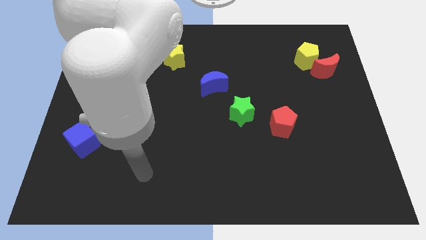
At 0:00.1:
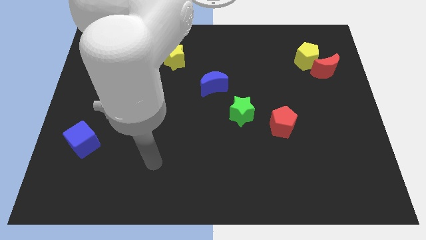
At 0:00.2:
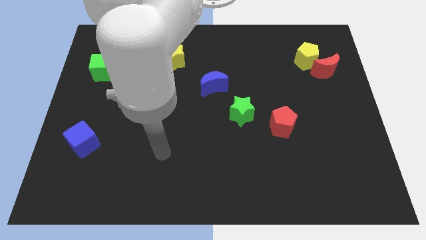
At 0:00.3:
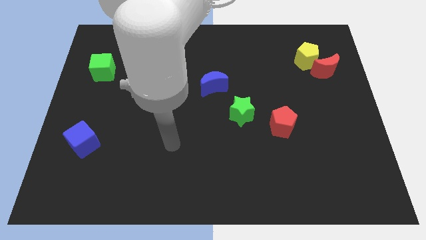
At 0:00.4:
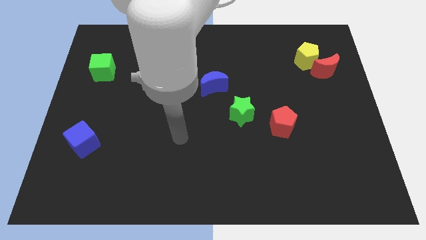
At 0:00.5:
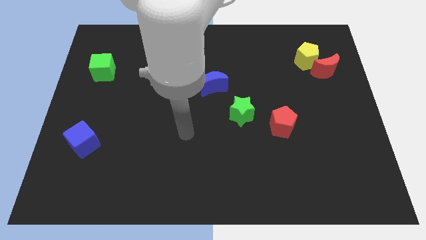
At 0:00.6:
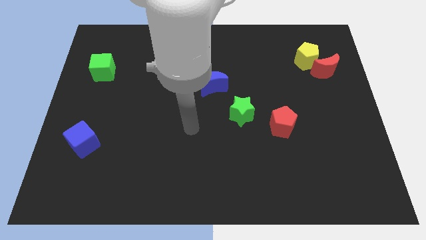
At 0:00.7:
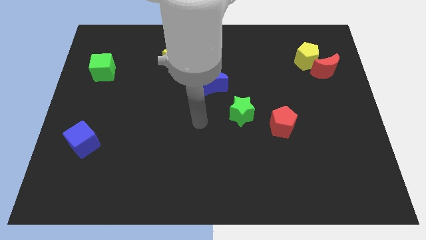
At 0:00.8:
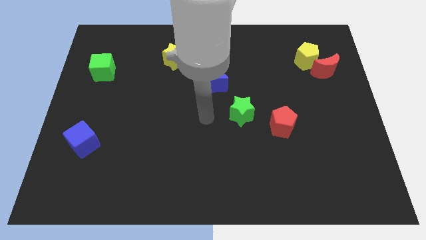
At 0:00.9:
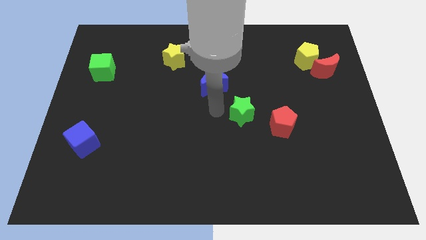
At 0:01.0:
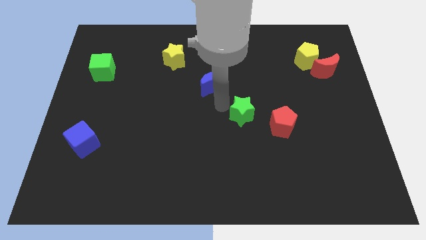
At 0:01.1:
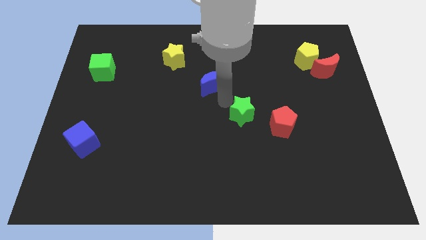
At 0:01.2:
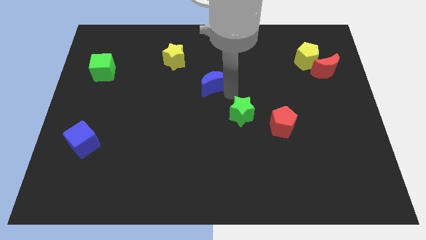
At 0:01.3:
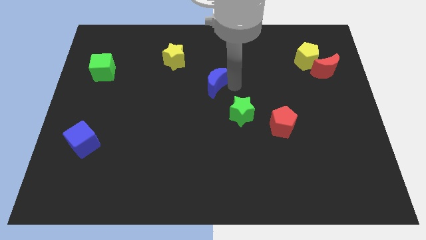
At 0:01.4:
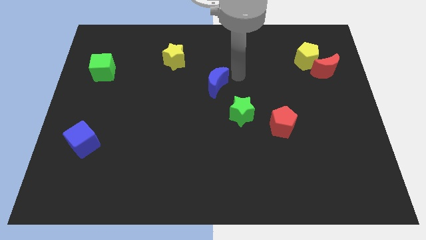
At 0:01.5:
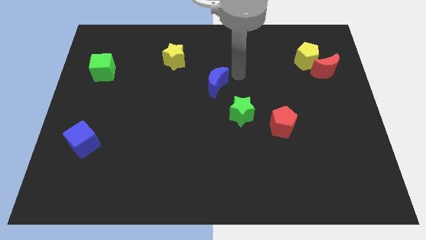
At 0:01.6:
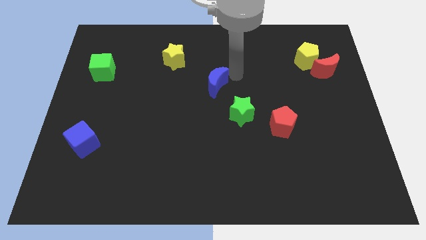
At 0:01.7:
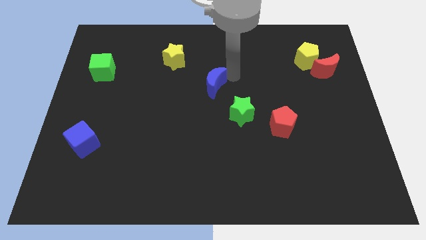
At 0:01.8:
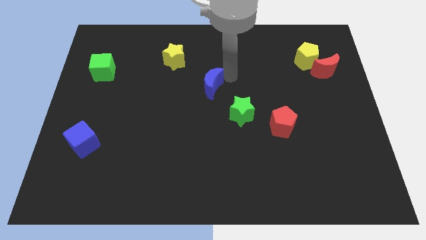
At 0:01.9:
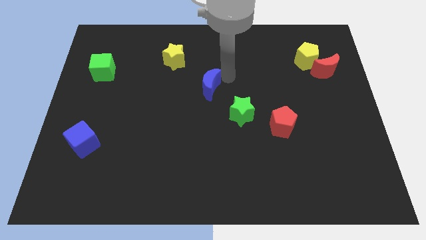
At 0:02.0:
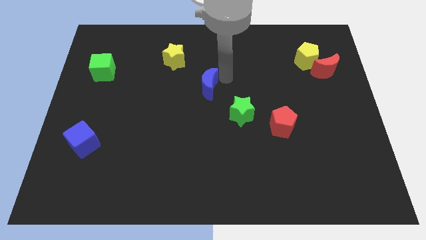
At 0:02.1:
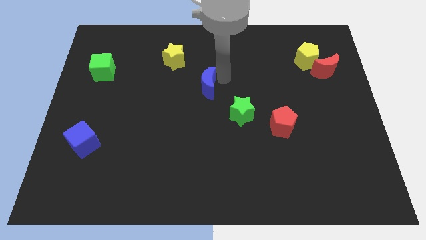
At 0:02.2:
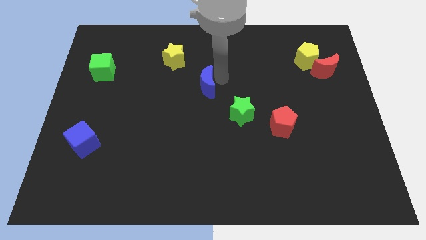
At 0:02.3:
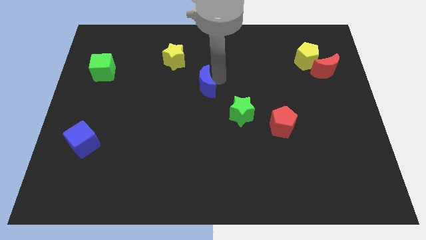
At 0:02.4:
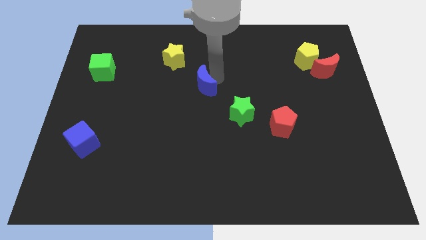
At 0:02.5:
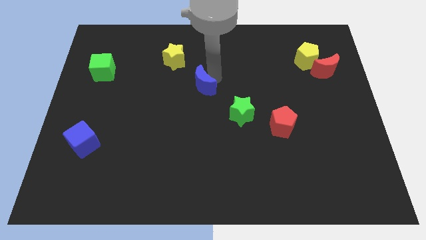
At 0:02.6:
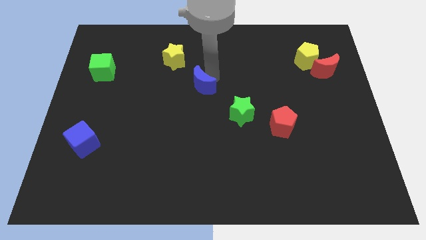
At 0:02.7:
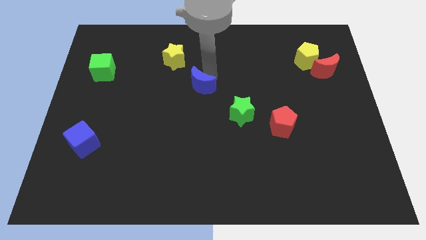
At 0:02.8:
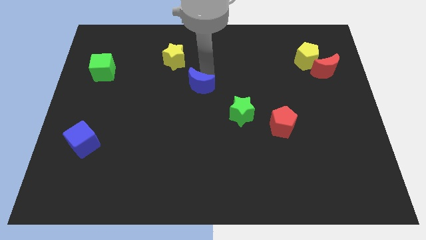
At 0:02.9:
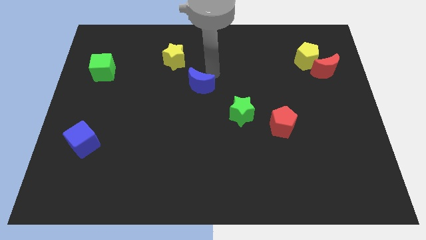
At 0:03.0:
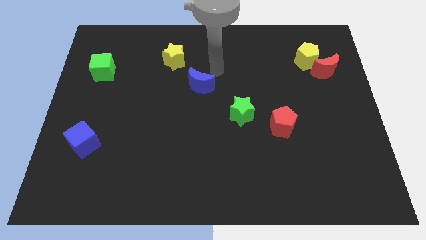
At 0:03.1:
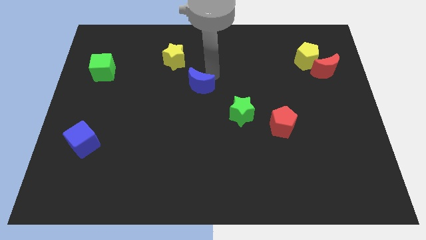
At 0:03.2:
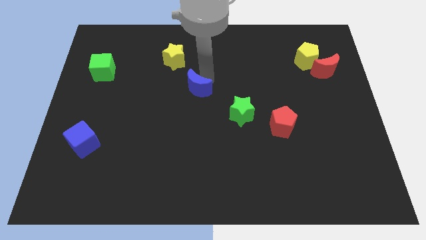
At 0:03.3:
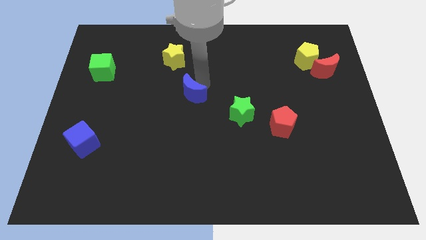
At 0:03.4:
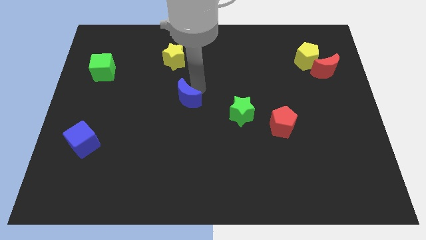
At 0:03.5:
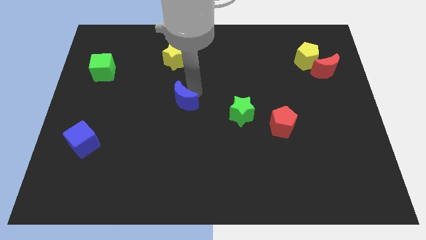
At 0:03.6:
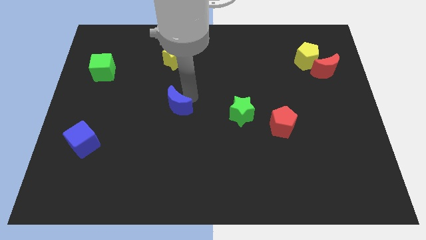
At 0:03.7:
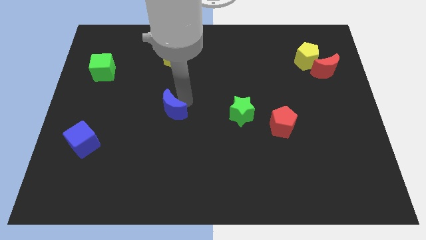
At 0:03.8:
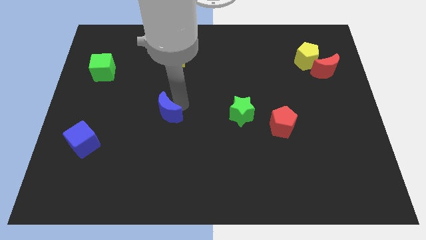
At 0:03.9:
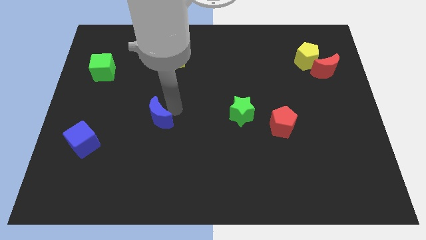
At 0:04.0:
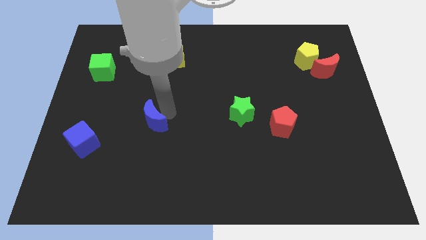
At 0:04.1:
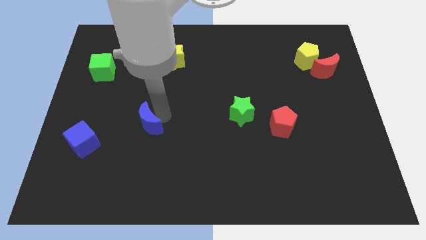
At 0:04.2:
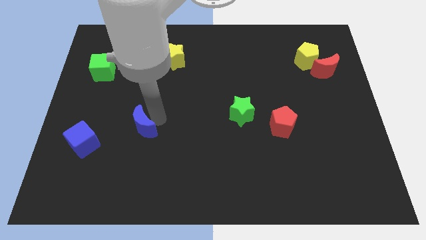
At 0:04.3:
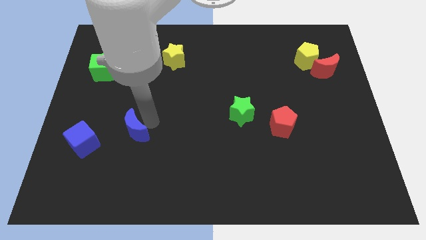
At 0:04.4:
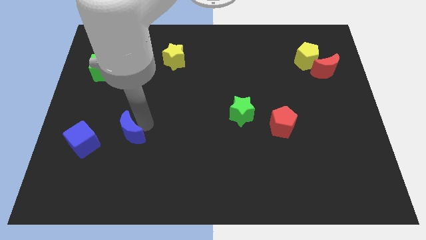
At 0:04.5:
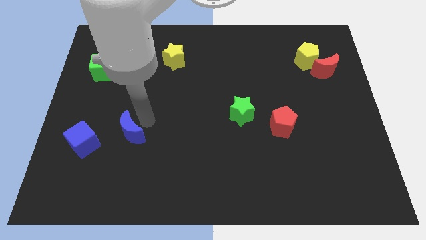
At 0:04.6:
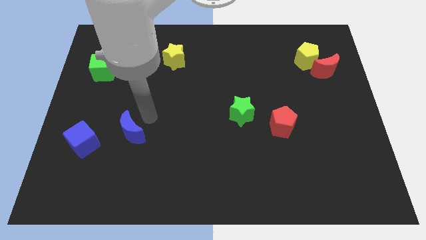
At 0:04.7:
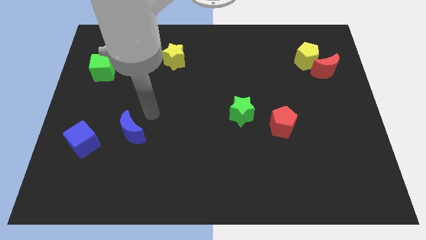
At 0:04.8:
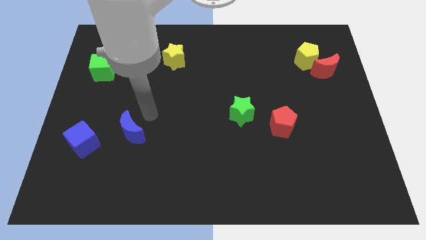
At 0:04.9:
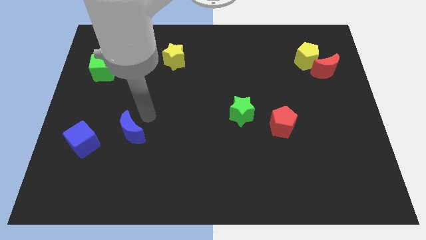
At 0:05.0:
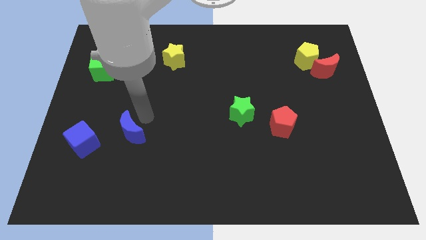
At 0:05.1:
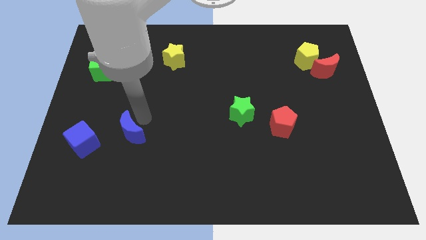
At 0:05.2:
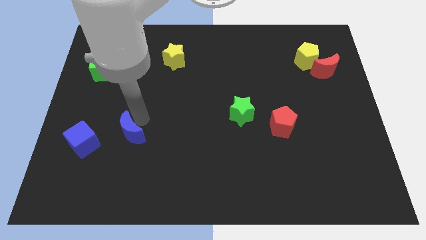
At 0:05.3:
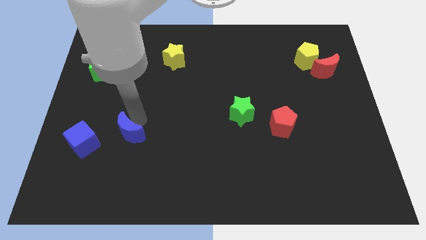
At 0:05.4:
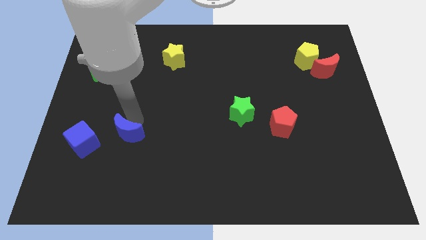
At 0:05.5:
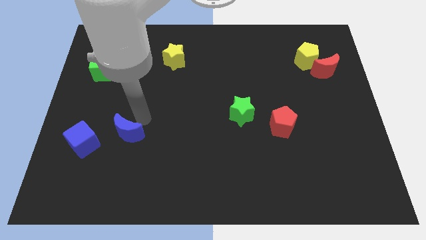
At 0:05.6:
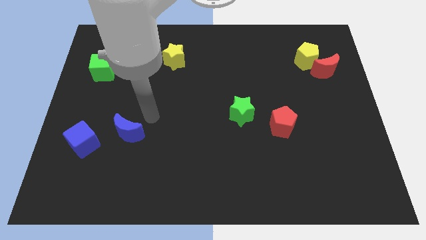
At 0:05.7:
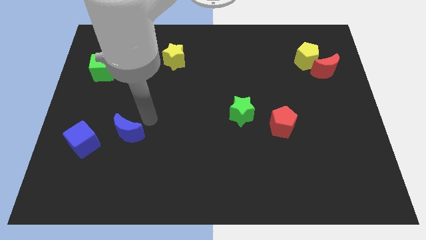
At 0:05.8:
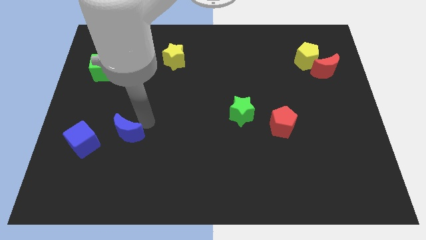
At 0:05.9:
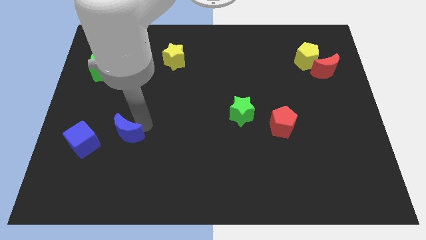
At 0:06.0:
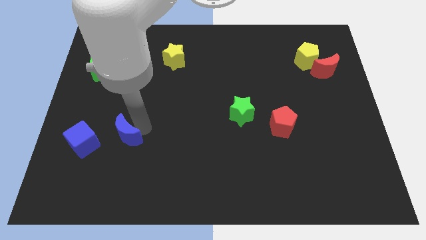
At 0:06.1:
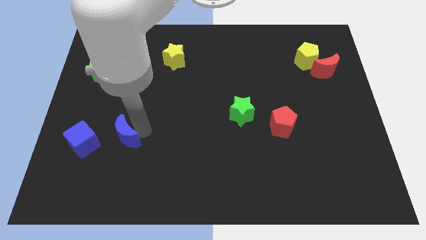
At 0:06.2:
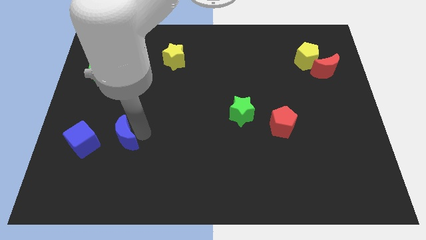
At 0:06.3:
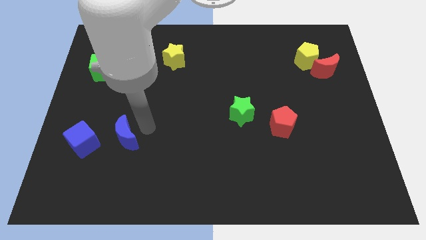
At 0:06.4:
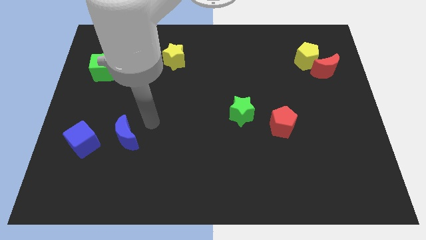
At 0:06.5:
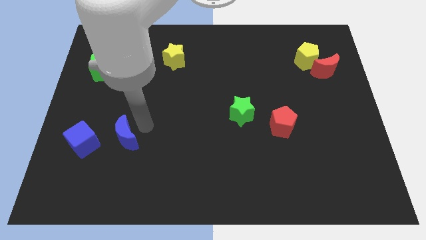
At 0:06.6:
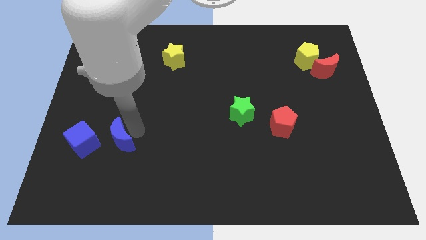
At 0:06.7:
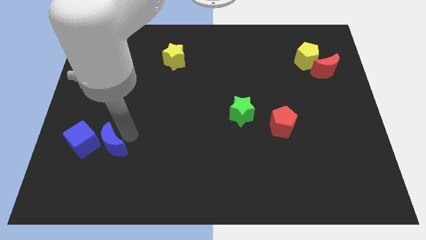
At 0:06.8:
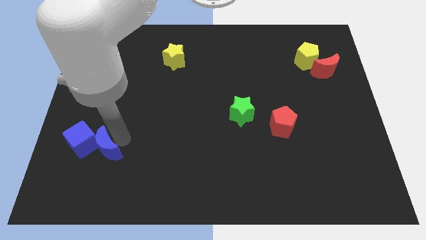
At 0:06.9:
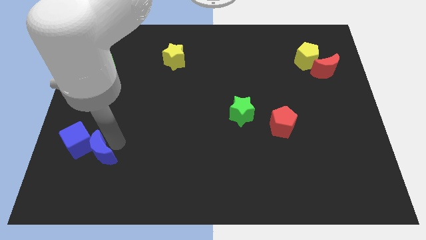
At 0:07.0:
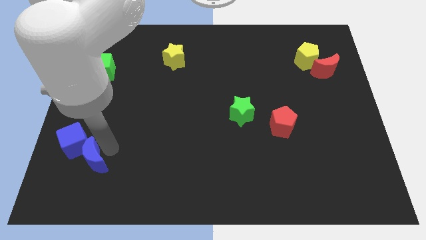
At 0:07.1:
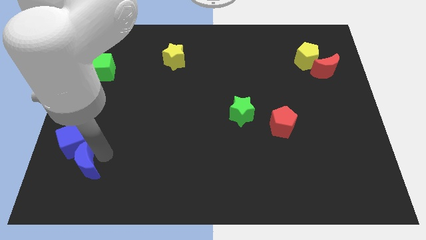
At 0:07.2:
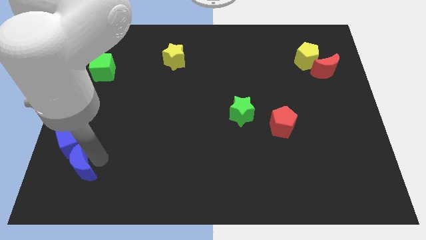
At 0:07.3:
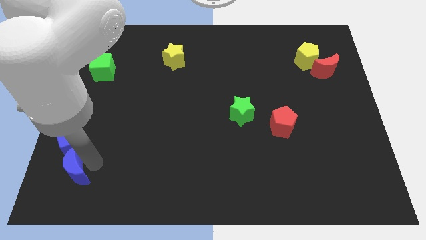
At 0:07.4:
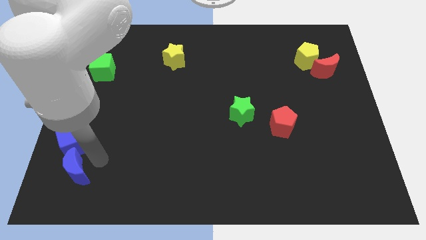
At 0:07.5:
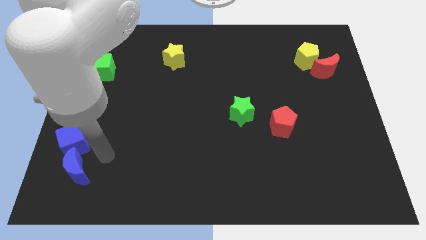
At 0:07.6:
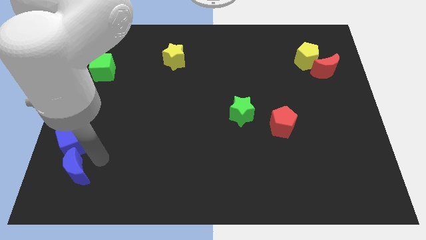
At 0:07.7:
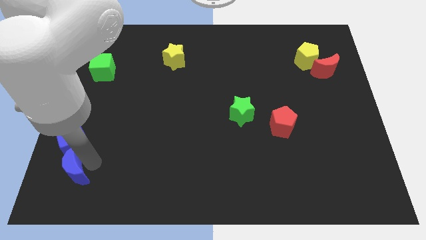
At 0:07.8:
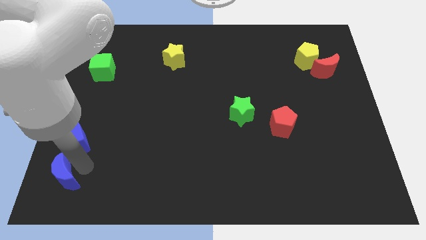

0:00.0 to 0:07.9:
slide the blue moon to the bottom left
